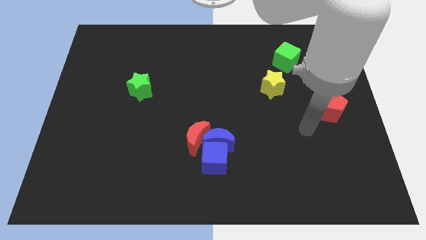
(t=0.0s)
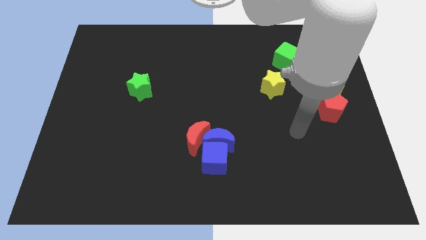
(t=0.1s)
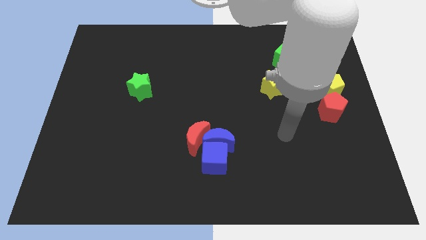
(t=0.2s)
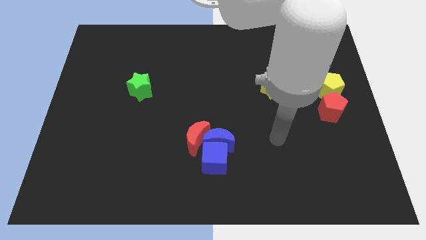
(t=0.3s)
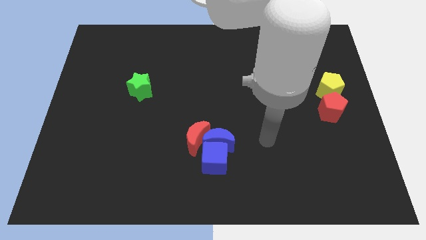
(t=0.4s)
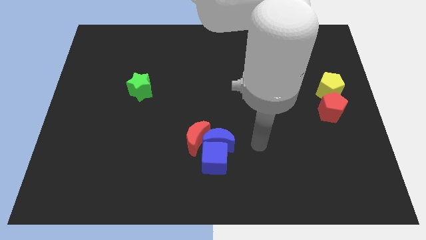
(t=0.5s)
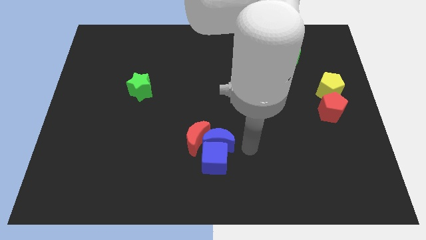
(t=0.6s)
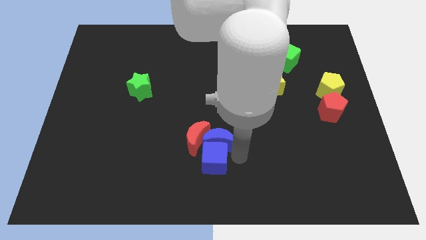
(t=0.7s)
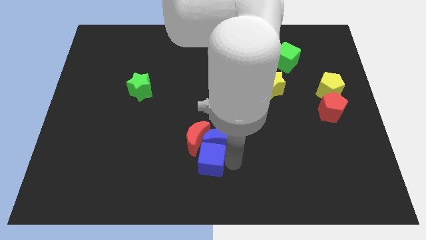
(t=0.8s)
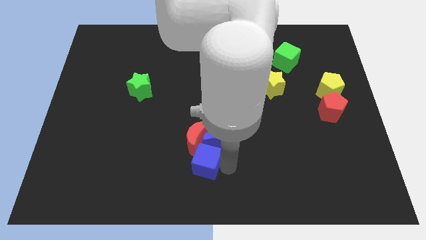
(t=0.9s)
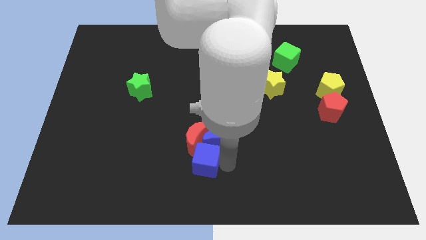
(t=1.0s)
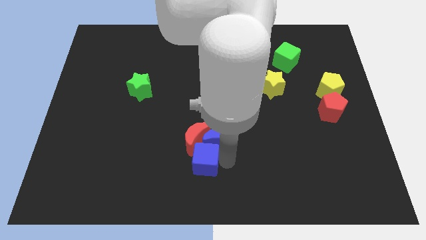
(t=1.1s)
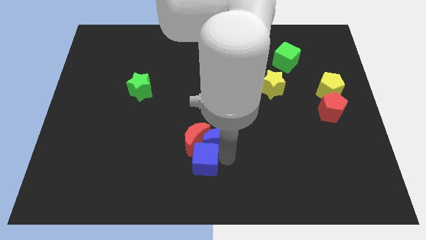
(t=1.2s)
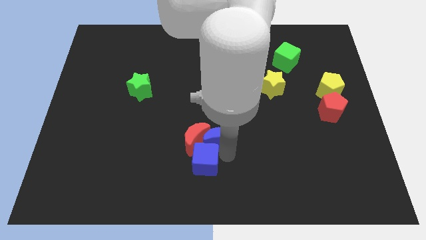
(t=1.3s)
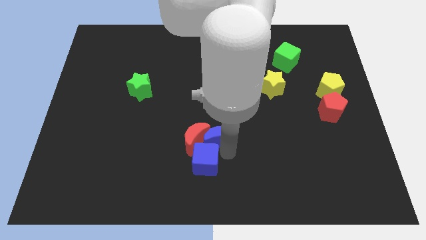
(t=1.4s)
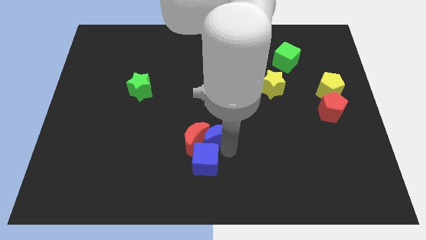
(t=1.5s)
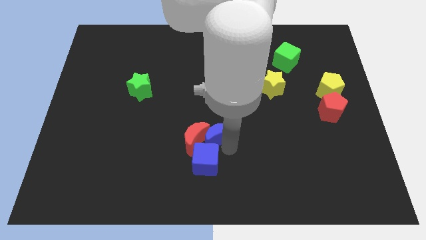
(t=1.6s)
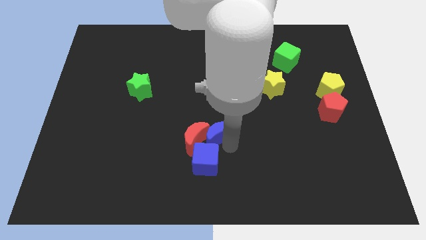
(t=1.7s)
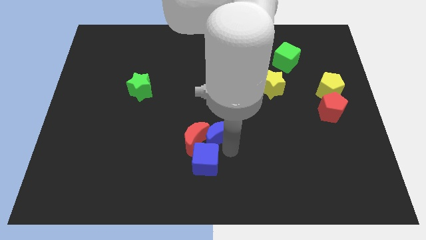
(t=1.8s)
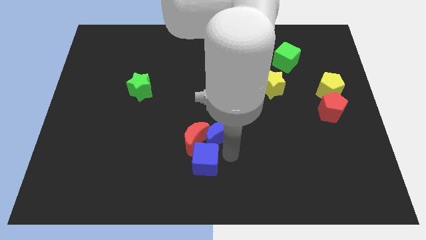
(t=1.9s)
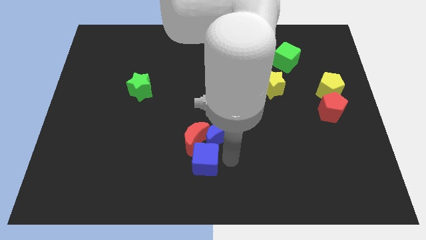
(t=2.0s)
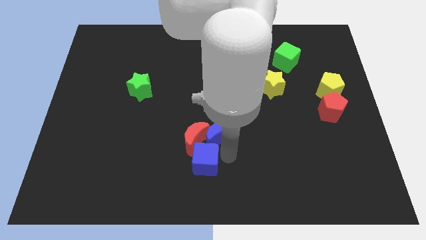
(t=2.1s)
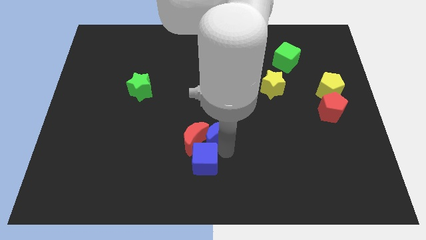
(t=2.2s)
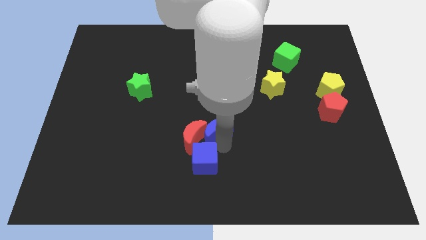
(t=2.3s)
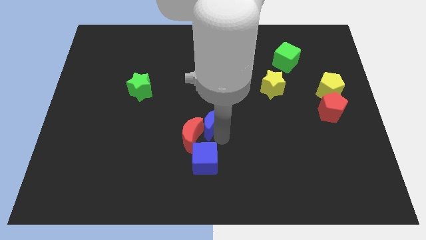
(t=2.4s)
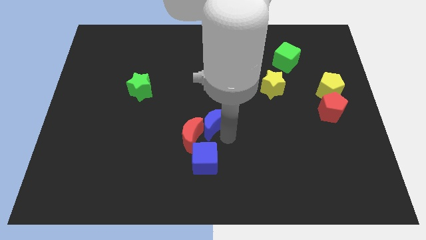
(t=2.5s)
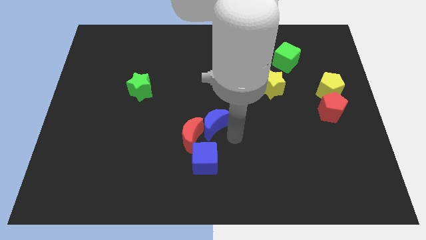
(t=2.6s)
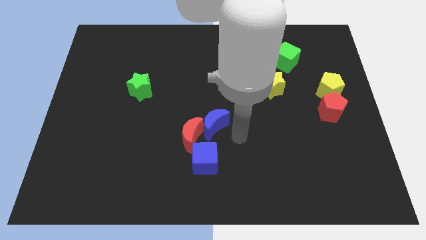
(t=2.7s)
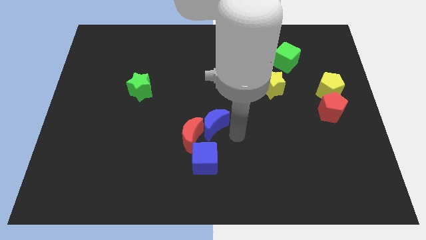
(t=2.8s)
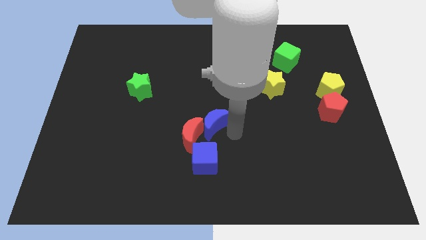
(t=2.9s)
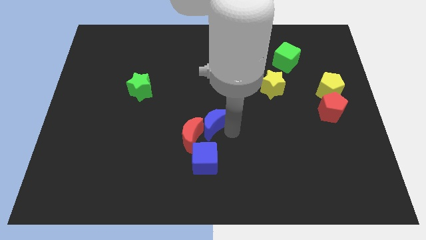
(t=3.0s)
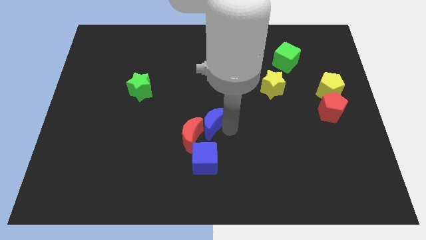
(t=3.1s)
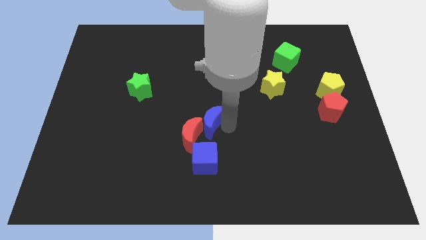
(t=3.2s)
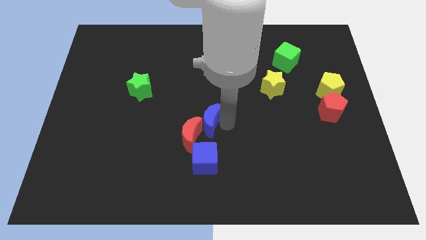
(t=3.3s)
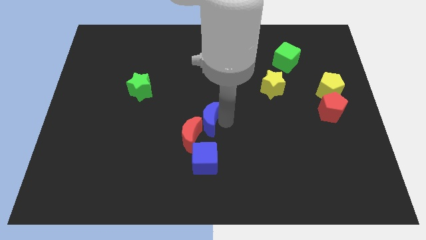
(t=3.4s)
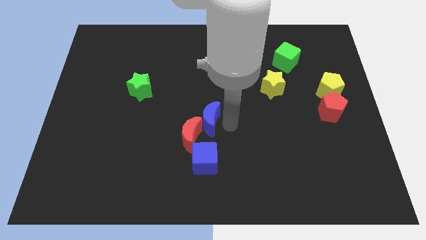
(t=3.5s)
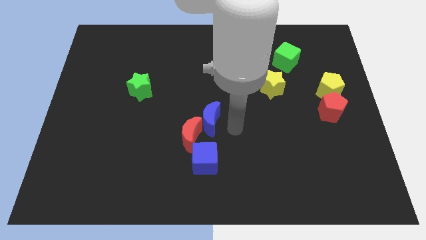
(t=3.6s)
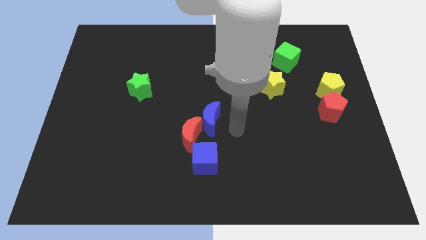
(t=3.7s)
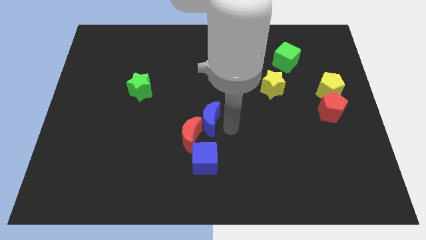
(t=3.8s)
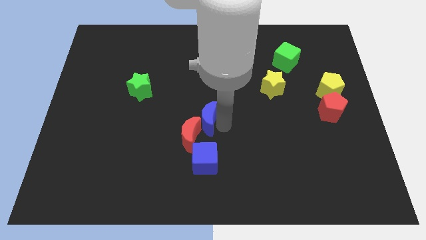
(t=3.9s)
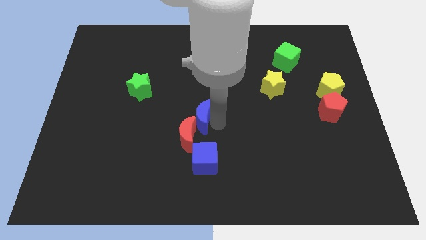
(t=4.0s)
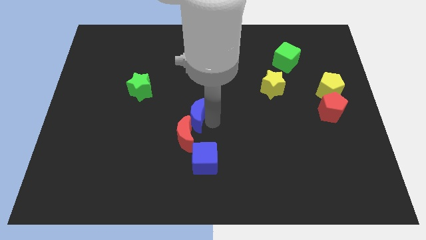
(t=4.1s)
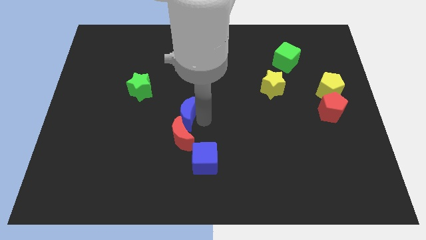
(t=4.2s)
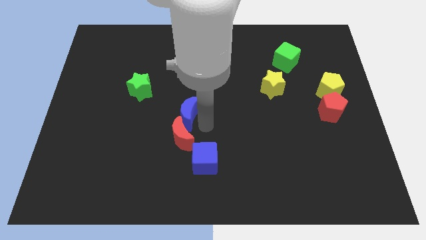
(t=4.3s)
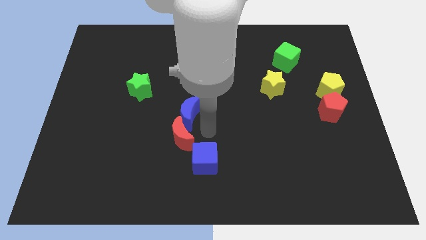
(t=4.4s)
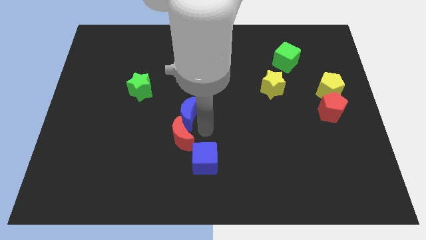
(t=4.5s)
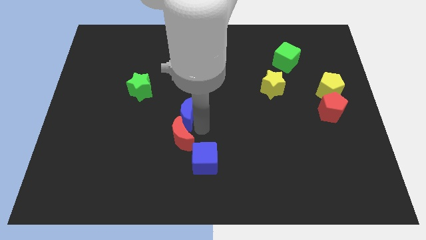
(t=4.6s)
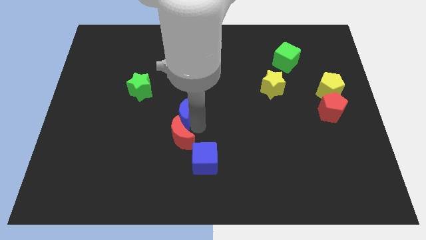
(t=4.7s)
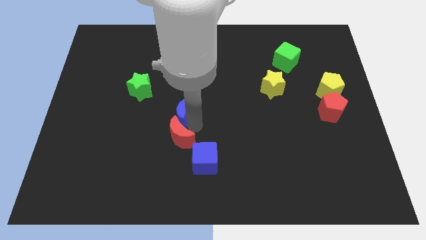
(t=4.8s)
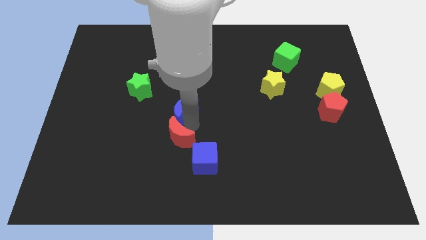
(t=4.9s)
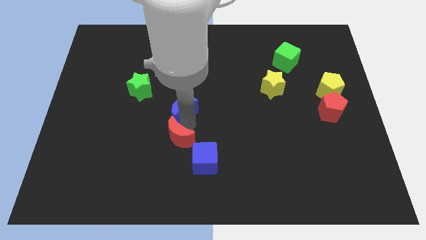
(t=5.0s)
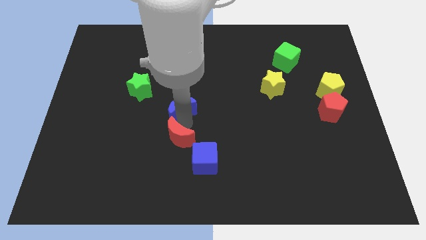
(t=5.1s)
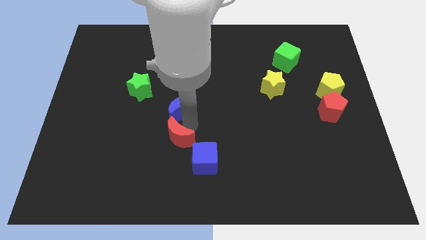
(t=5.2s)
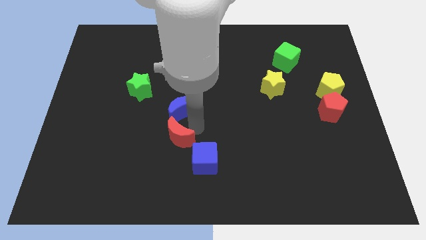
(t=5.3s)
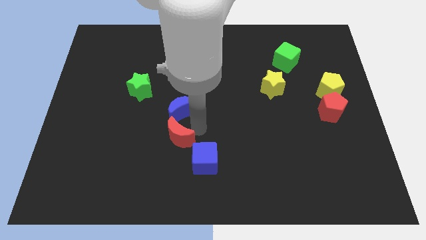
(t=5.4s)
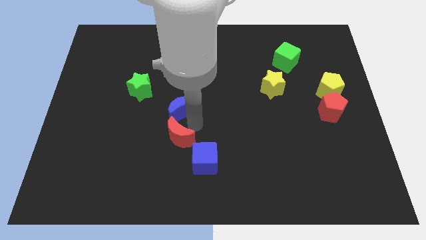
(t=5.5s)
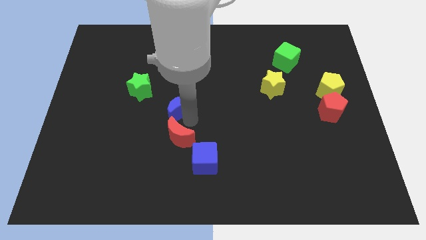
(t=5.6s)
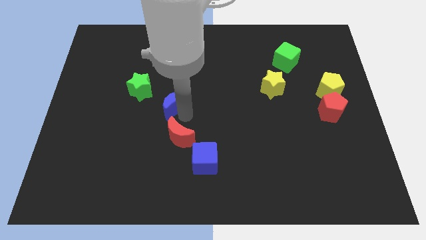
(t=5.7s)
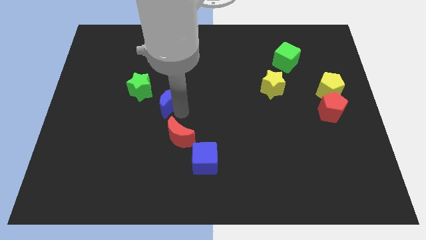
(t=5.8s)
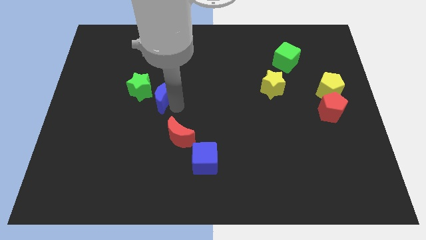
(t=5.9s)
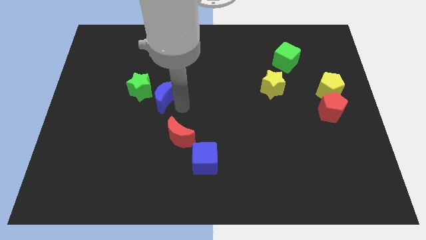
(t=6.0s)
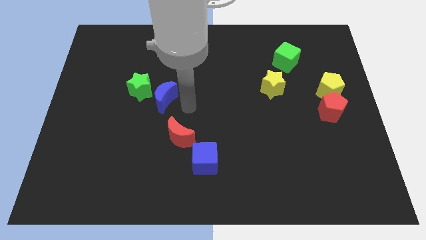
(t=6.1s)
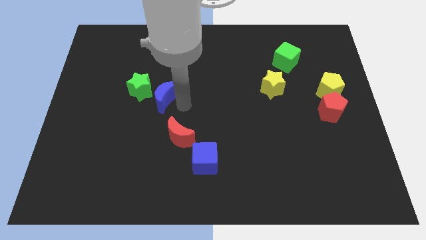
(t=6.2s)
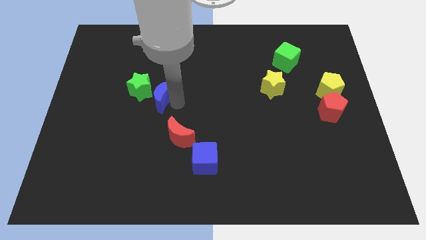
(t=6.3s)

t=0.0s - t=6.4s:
put the blue moon next to the green star
